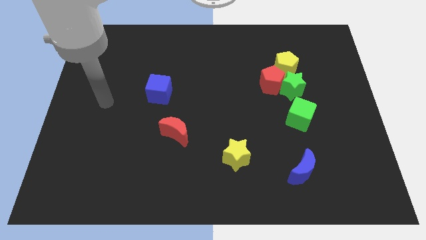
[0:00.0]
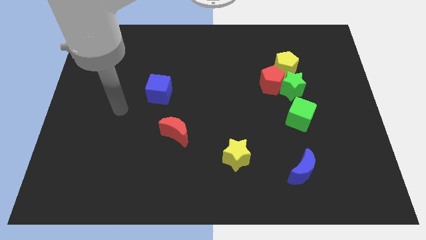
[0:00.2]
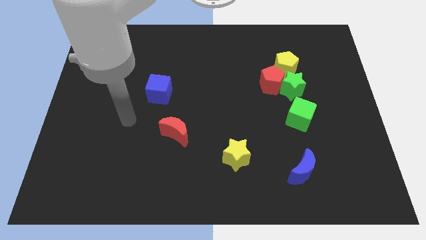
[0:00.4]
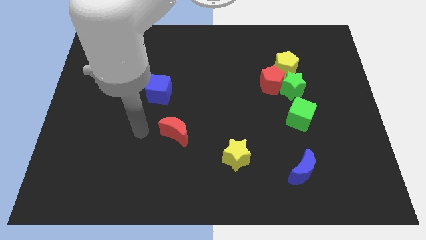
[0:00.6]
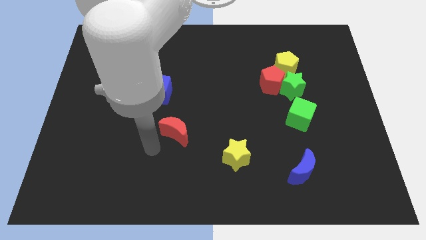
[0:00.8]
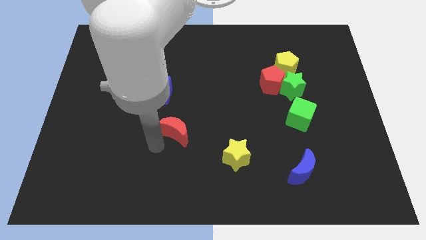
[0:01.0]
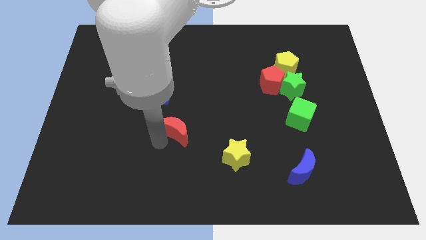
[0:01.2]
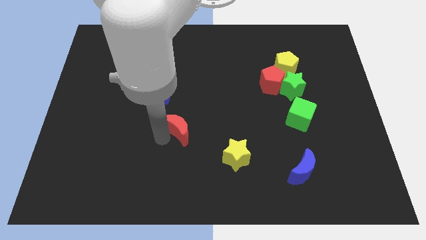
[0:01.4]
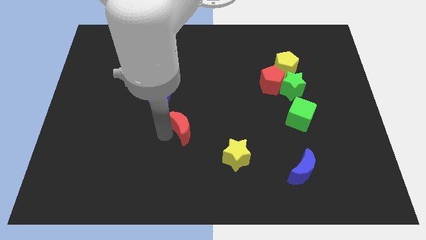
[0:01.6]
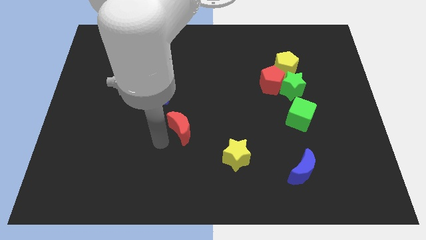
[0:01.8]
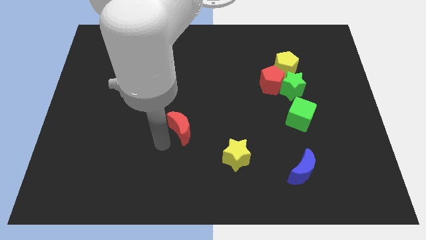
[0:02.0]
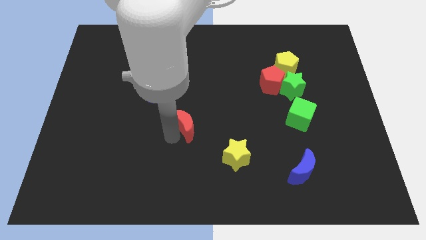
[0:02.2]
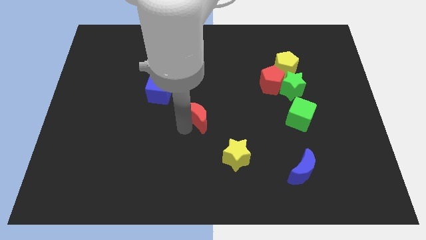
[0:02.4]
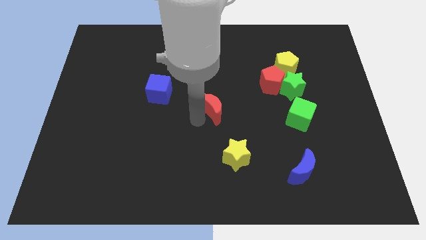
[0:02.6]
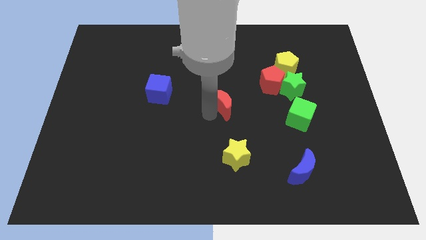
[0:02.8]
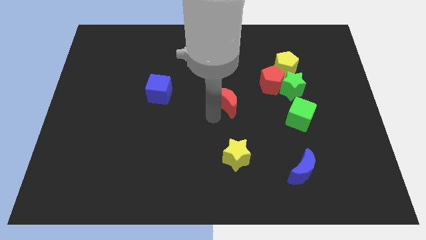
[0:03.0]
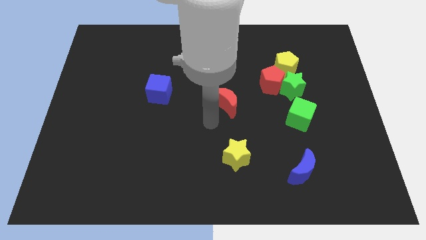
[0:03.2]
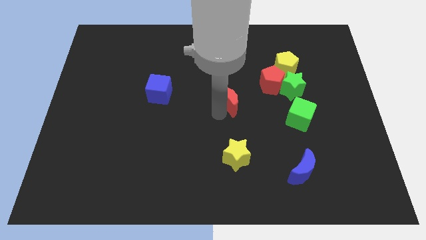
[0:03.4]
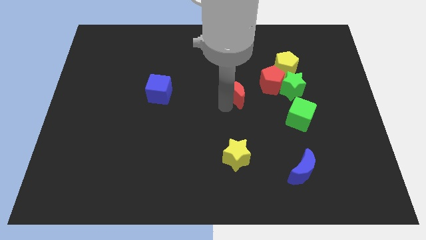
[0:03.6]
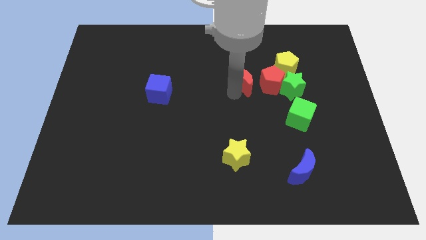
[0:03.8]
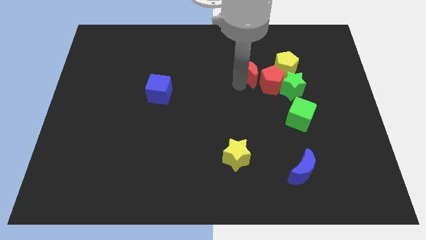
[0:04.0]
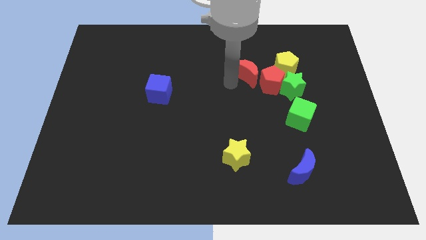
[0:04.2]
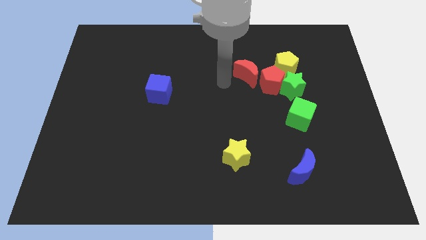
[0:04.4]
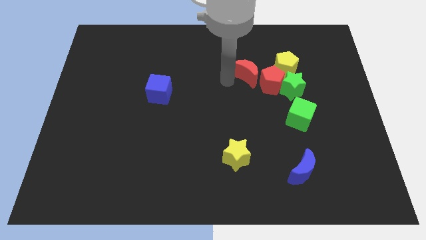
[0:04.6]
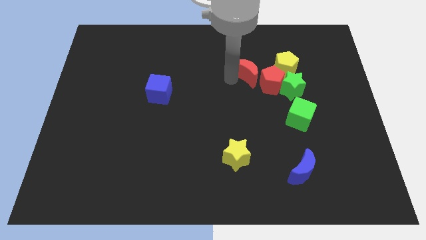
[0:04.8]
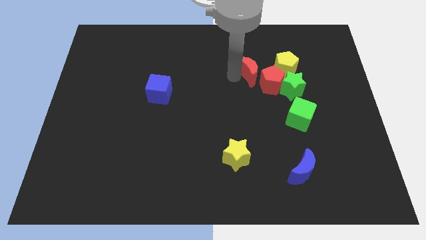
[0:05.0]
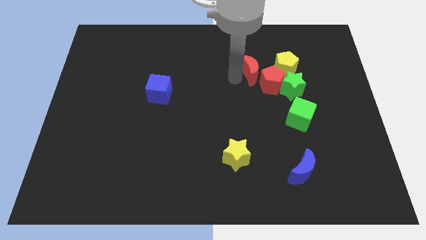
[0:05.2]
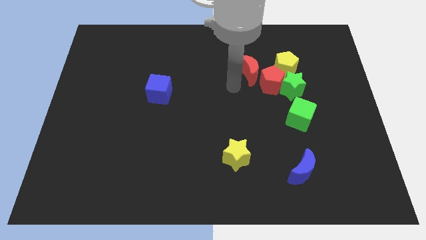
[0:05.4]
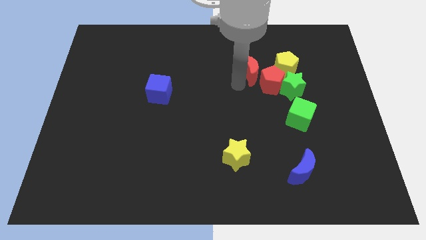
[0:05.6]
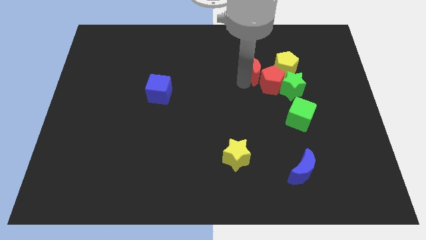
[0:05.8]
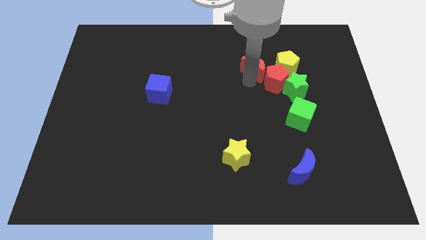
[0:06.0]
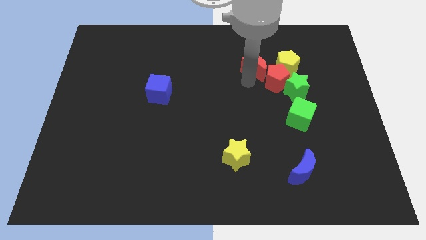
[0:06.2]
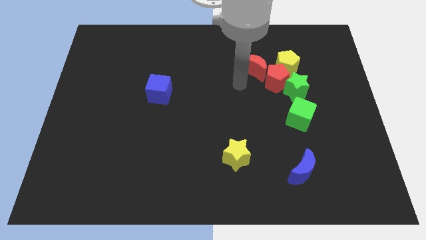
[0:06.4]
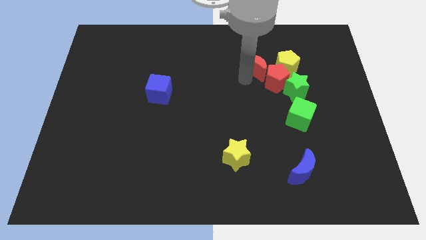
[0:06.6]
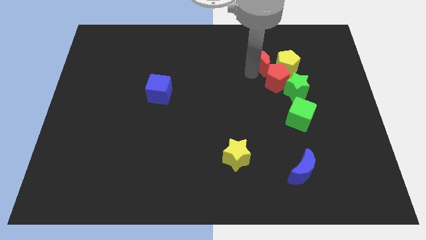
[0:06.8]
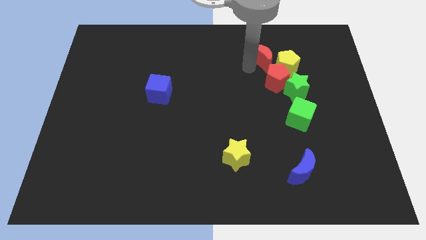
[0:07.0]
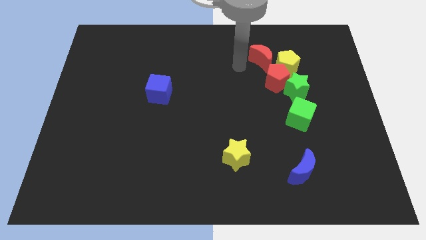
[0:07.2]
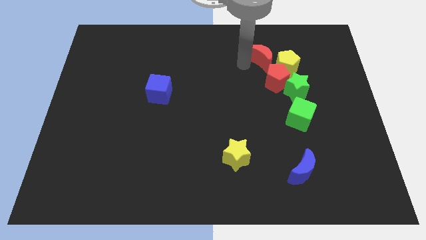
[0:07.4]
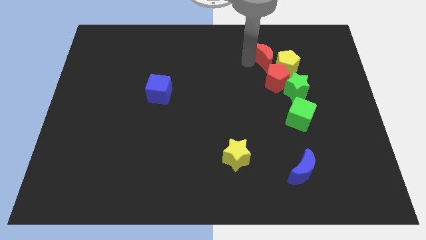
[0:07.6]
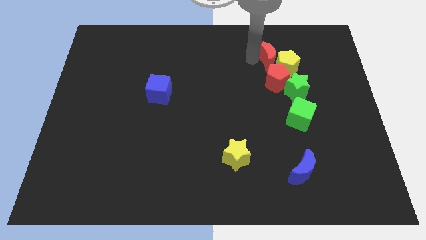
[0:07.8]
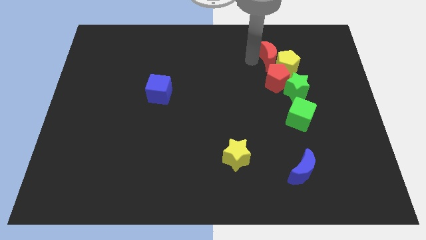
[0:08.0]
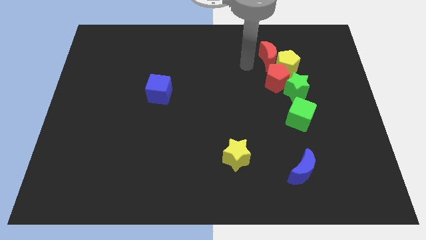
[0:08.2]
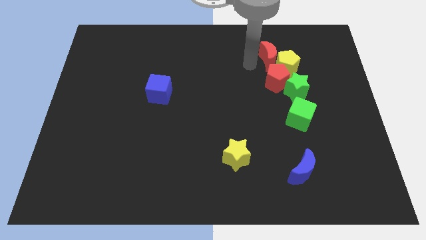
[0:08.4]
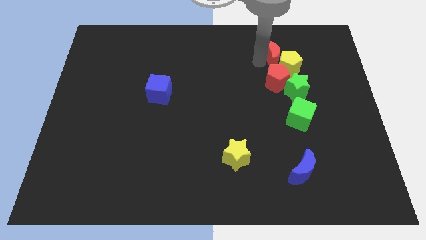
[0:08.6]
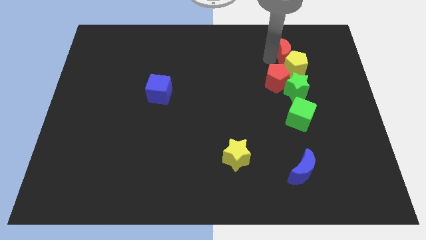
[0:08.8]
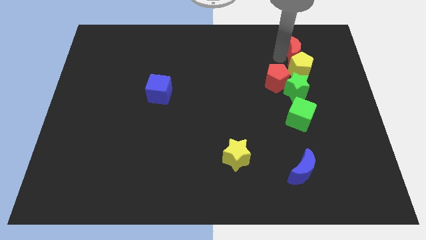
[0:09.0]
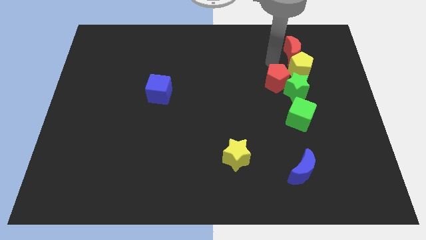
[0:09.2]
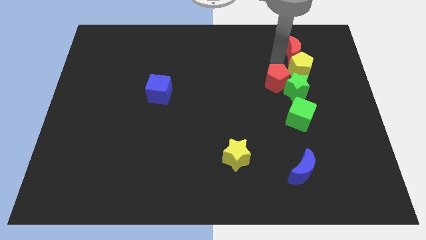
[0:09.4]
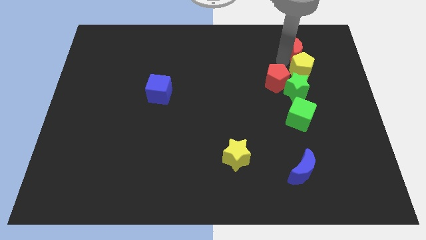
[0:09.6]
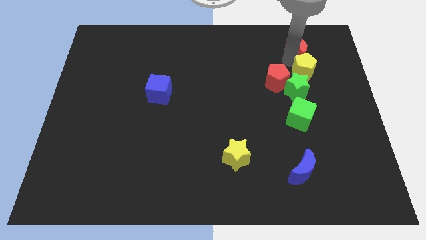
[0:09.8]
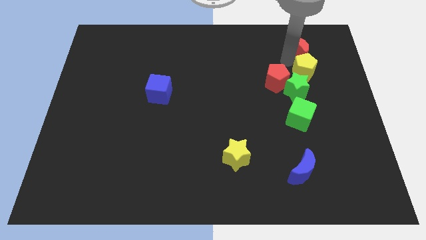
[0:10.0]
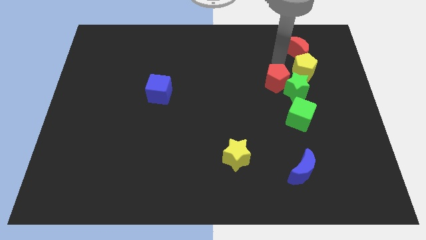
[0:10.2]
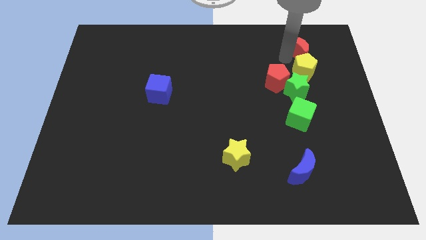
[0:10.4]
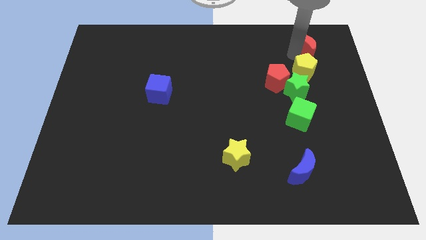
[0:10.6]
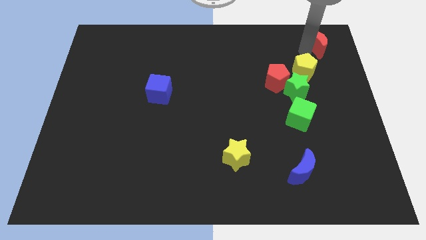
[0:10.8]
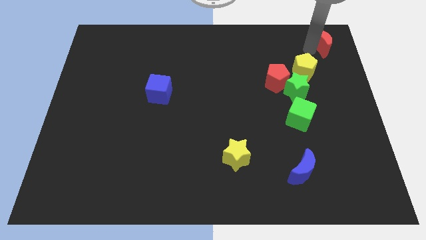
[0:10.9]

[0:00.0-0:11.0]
slide the red moon to the upper right corner

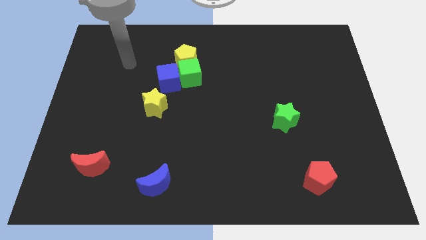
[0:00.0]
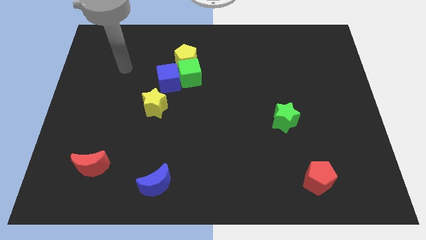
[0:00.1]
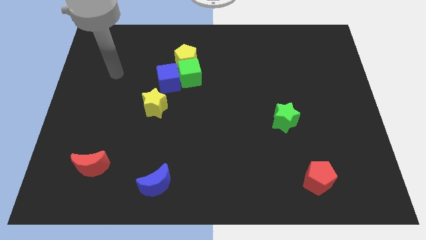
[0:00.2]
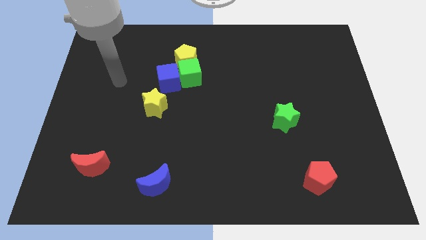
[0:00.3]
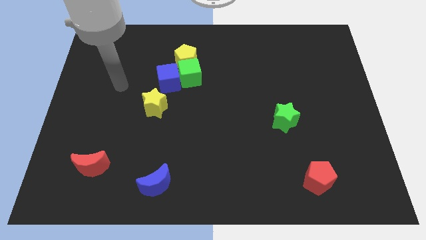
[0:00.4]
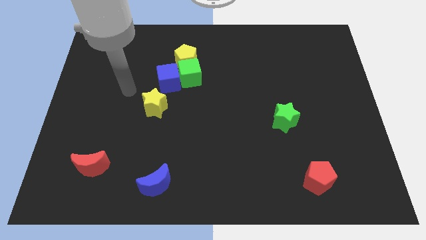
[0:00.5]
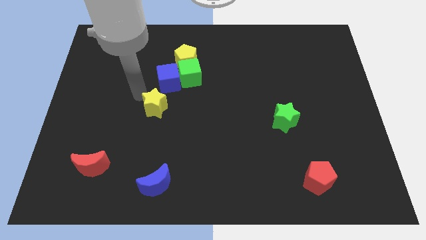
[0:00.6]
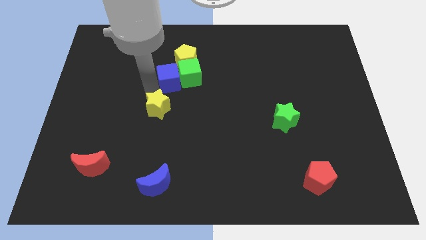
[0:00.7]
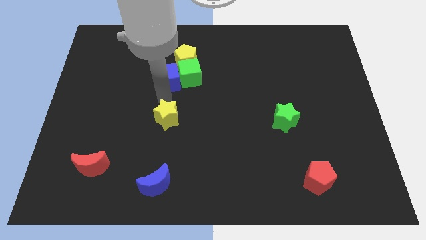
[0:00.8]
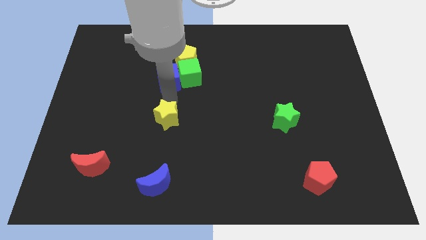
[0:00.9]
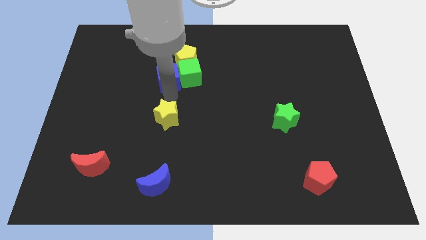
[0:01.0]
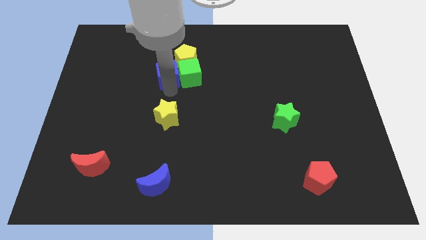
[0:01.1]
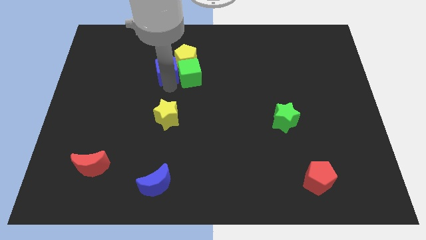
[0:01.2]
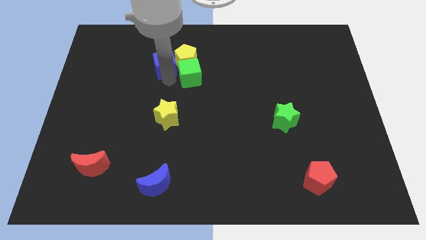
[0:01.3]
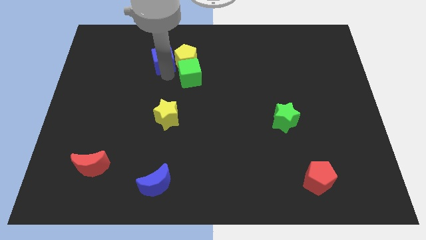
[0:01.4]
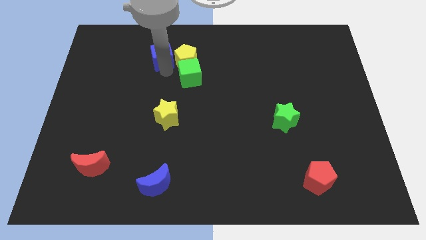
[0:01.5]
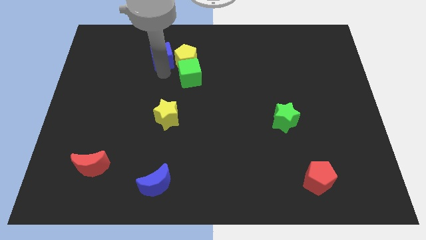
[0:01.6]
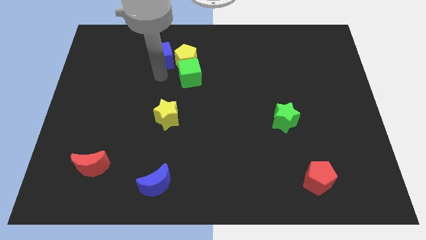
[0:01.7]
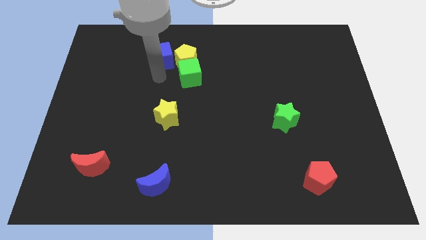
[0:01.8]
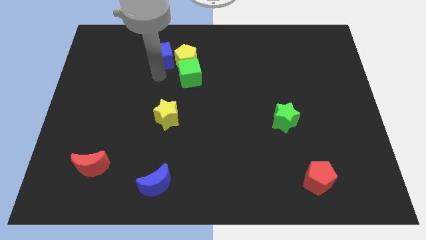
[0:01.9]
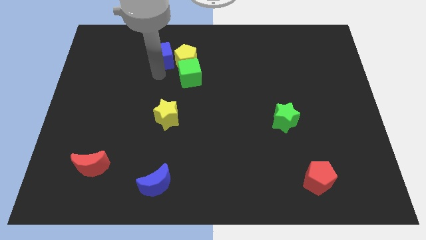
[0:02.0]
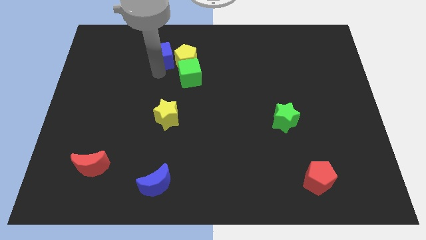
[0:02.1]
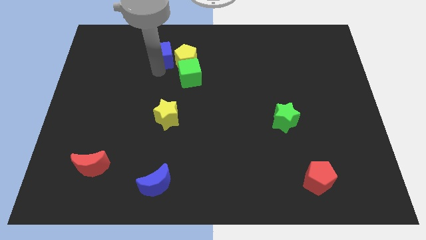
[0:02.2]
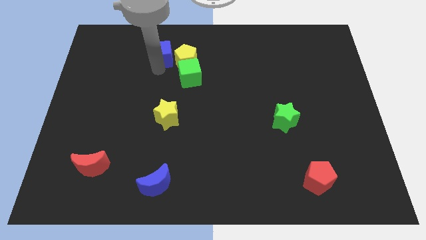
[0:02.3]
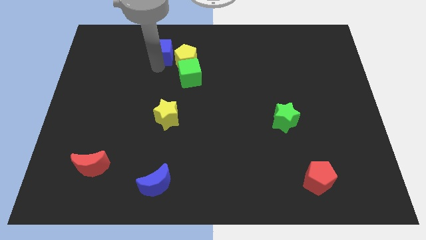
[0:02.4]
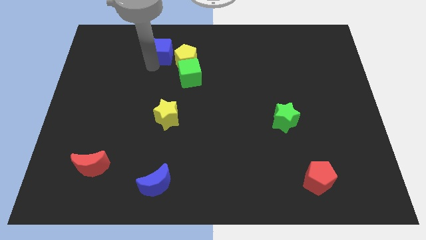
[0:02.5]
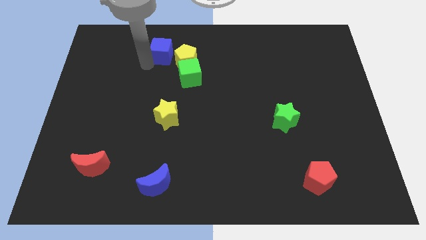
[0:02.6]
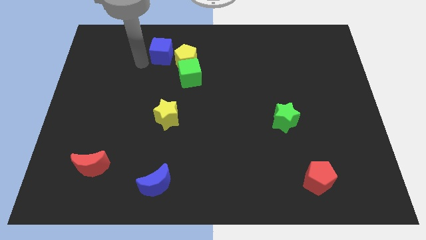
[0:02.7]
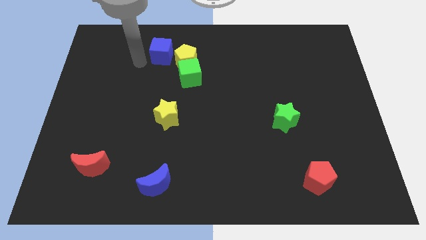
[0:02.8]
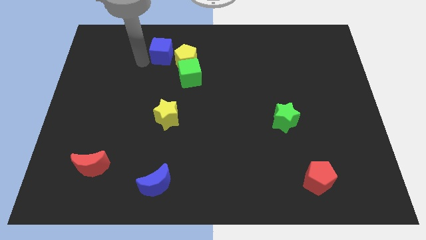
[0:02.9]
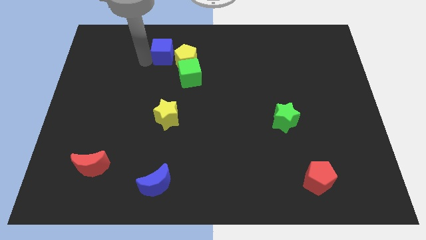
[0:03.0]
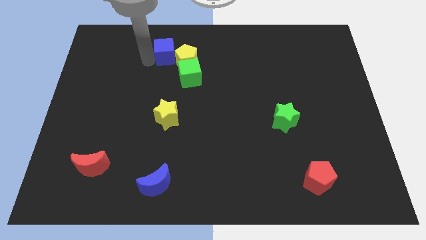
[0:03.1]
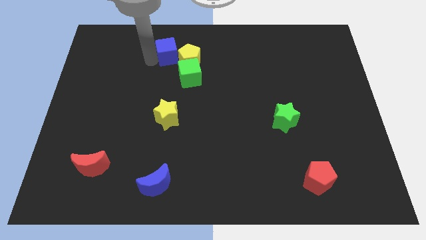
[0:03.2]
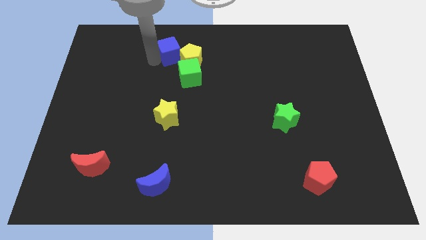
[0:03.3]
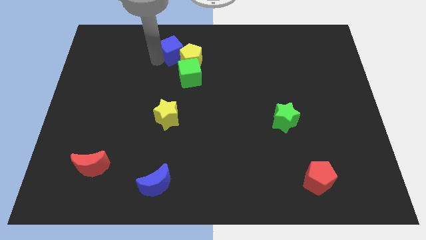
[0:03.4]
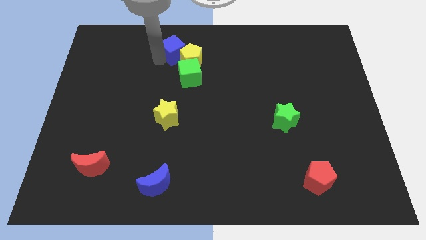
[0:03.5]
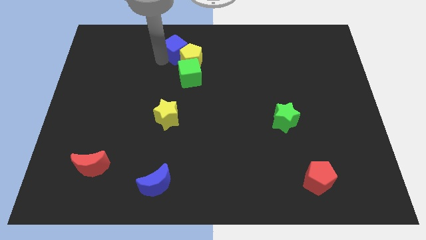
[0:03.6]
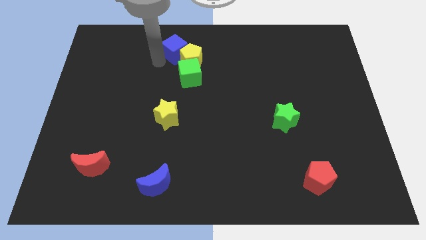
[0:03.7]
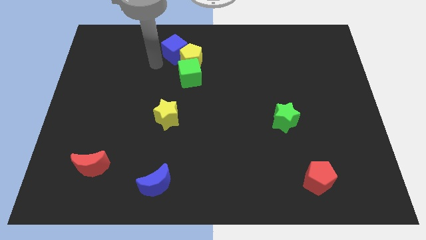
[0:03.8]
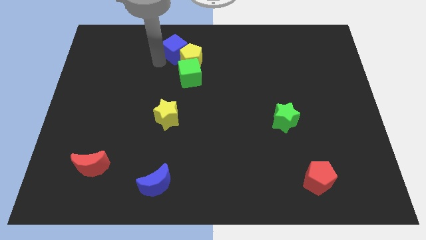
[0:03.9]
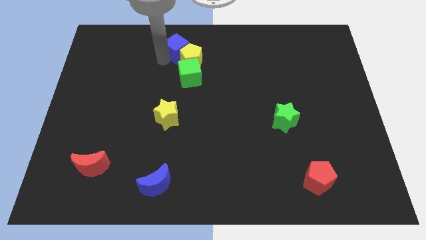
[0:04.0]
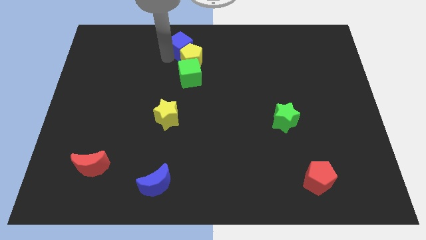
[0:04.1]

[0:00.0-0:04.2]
slide the blue cube to the towards your base
